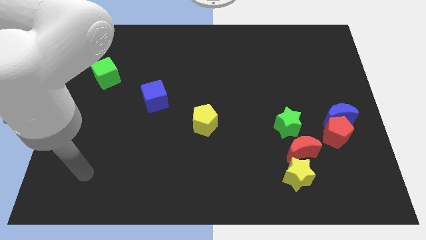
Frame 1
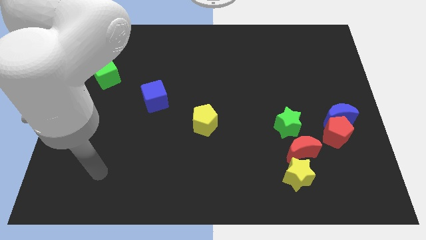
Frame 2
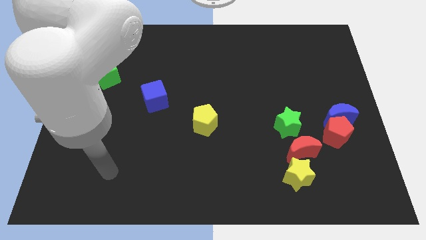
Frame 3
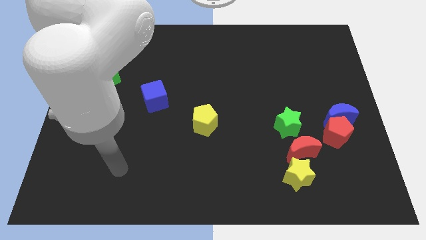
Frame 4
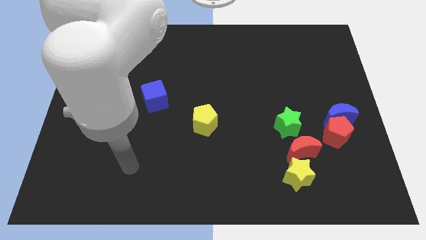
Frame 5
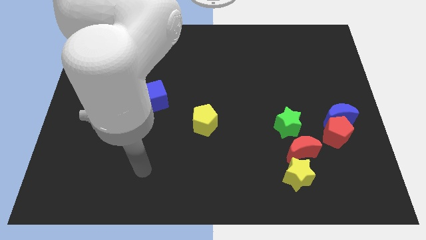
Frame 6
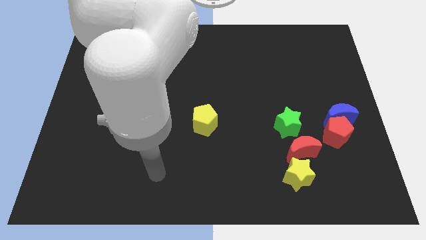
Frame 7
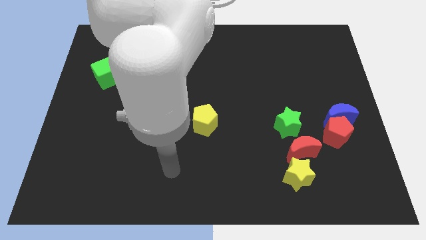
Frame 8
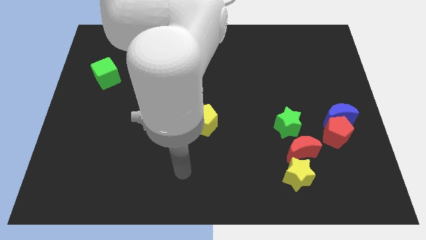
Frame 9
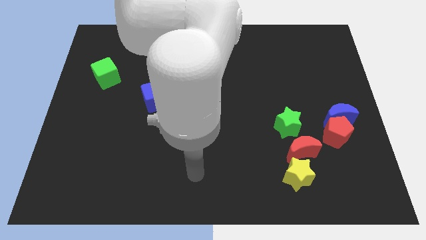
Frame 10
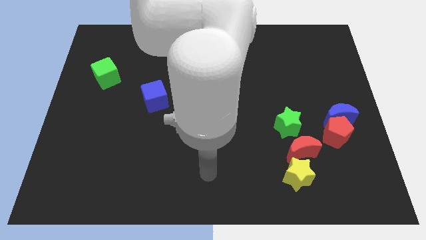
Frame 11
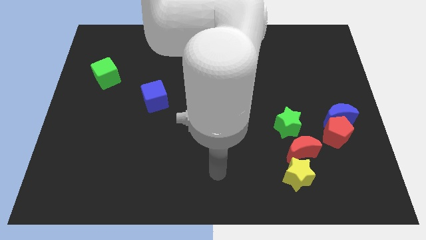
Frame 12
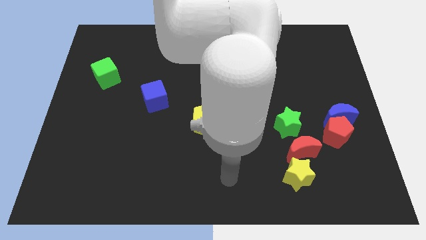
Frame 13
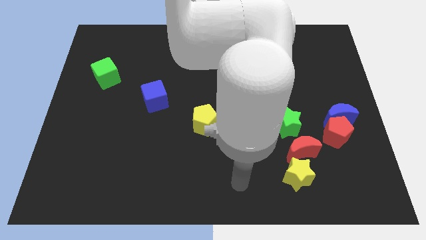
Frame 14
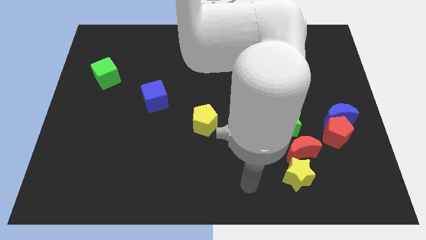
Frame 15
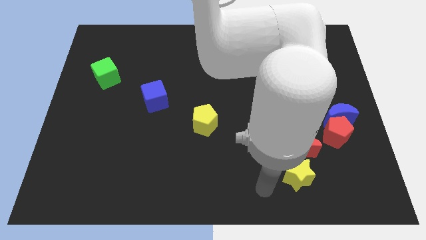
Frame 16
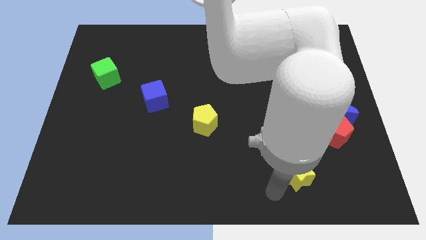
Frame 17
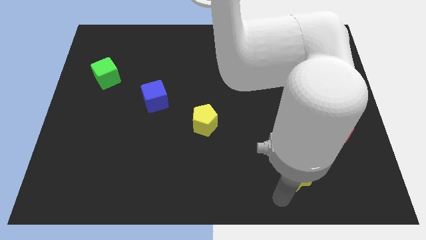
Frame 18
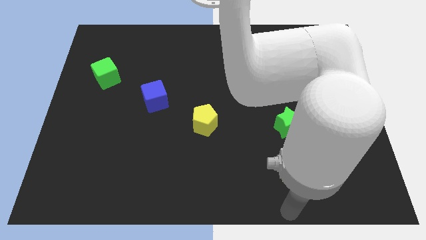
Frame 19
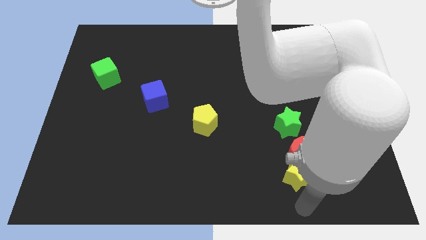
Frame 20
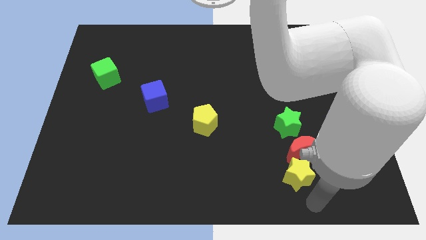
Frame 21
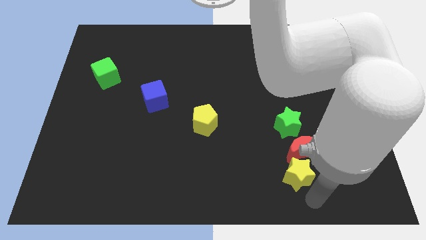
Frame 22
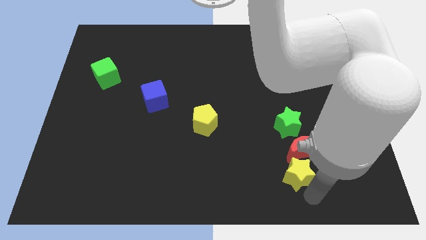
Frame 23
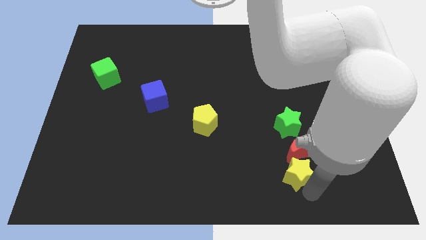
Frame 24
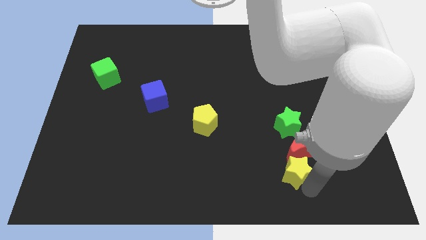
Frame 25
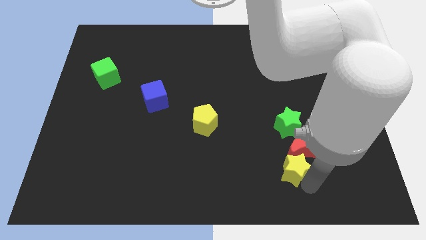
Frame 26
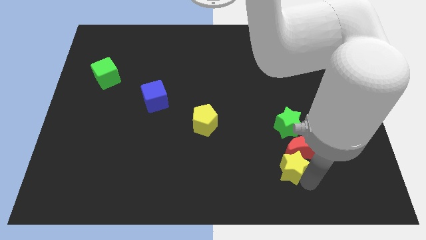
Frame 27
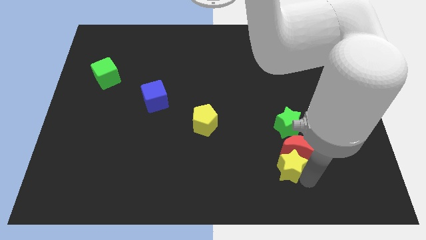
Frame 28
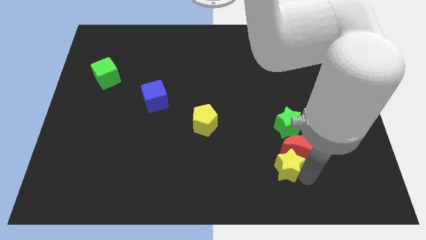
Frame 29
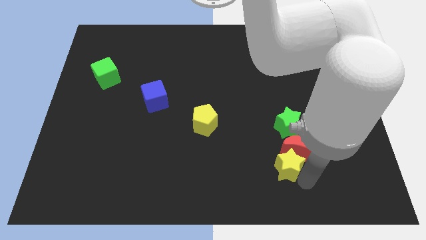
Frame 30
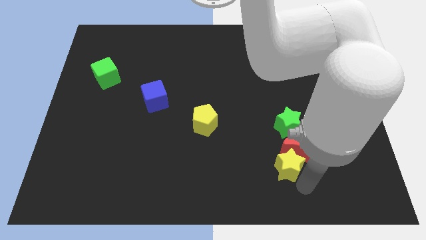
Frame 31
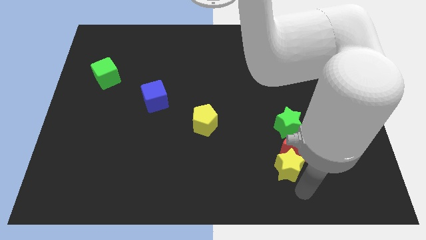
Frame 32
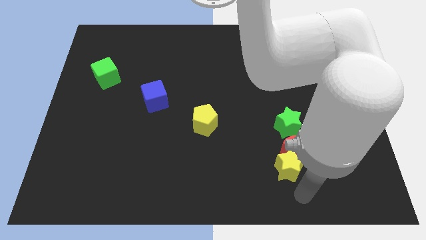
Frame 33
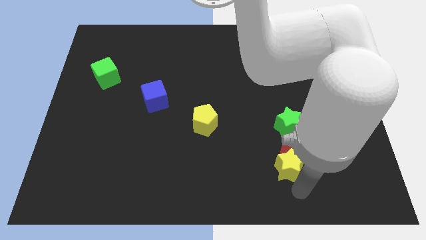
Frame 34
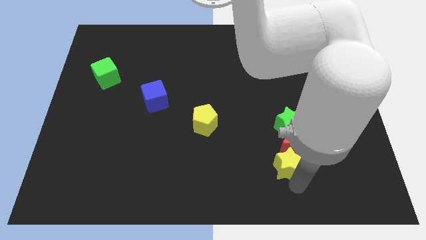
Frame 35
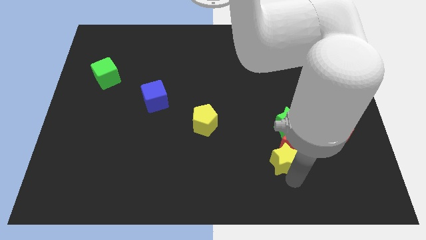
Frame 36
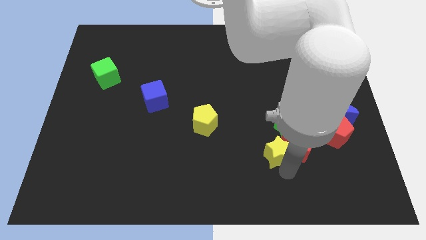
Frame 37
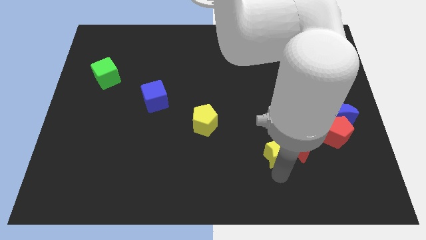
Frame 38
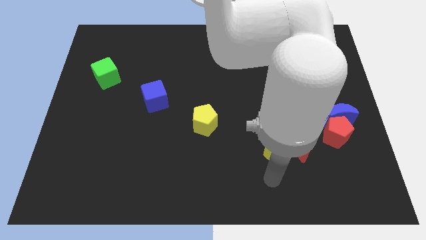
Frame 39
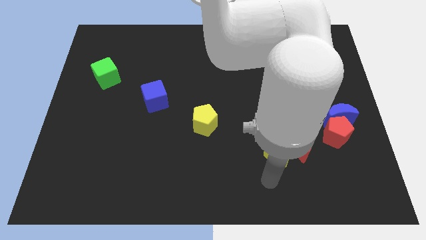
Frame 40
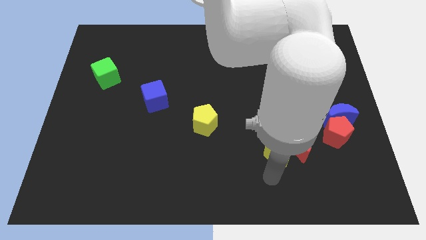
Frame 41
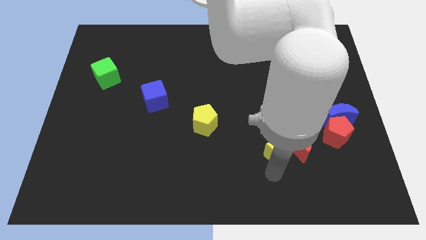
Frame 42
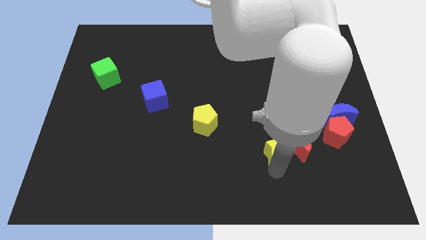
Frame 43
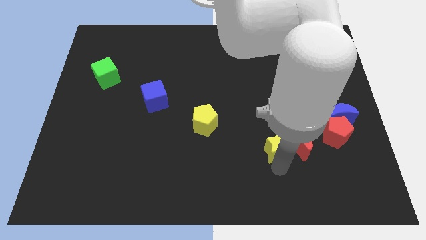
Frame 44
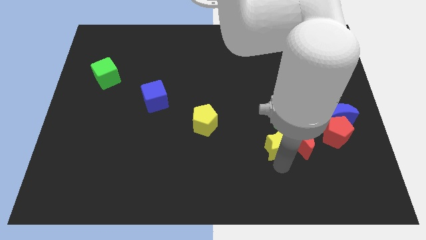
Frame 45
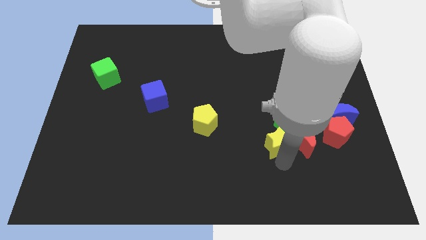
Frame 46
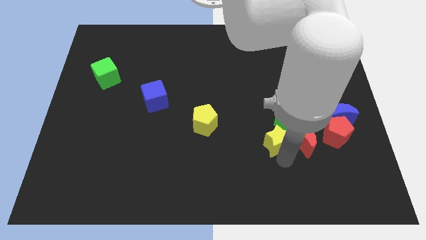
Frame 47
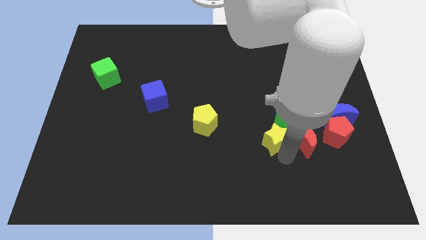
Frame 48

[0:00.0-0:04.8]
put the yellow star to the green star

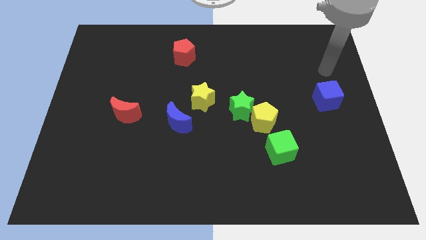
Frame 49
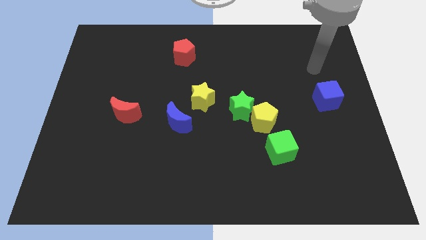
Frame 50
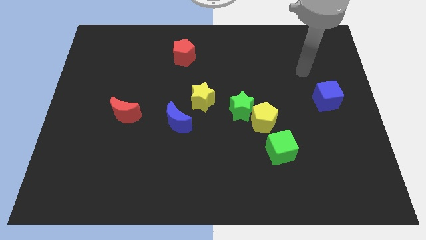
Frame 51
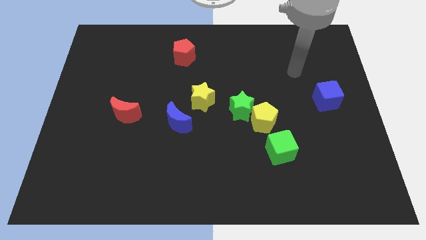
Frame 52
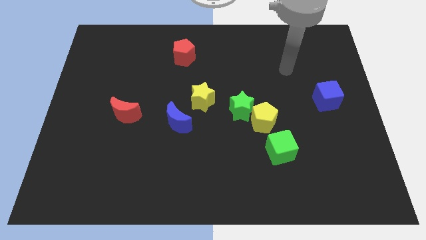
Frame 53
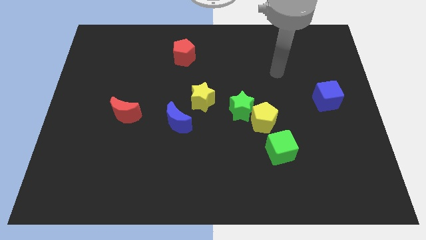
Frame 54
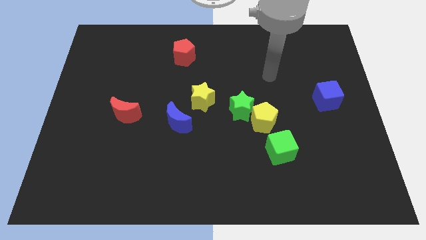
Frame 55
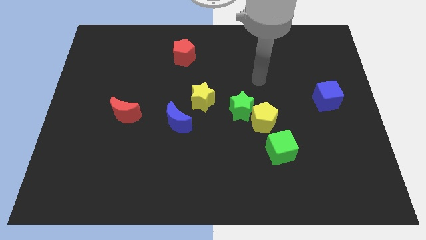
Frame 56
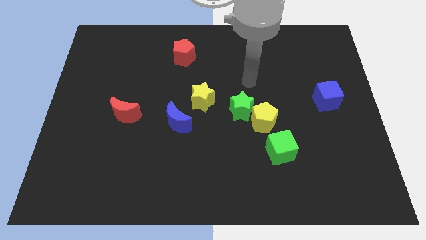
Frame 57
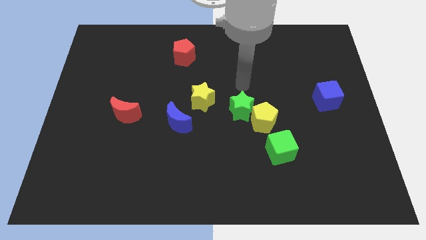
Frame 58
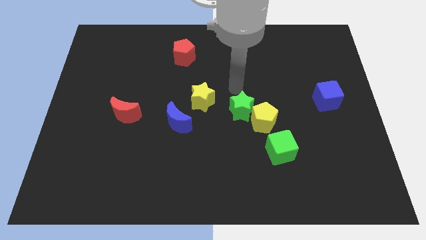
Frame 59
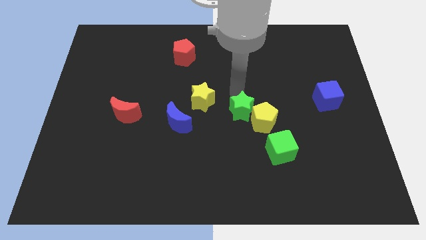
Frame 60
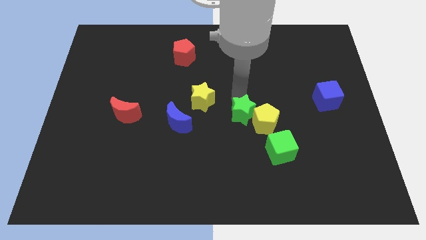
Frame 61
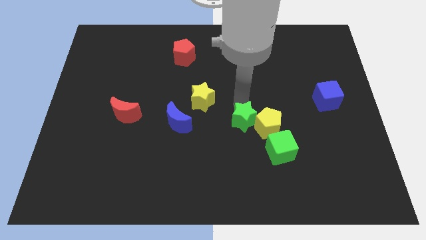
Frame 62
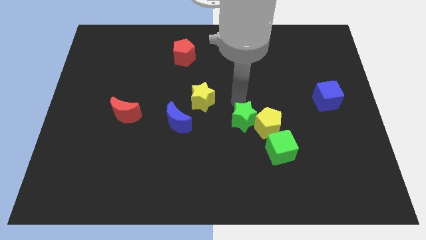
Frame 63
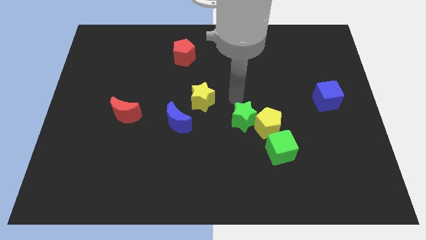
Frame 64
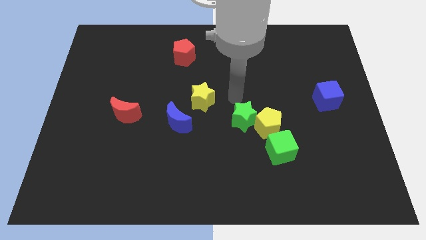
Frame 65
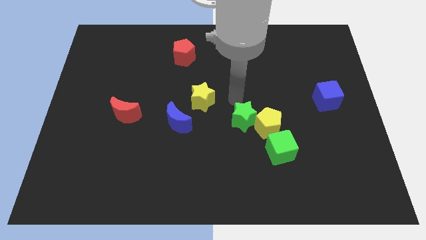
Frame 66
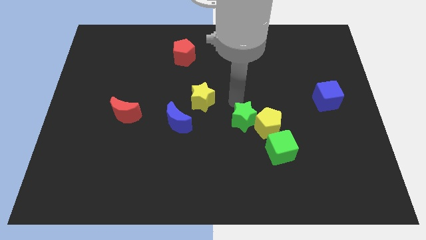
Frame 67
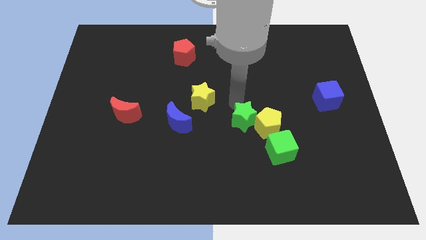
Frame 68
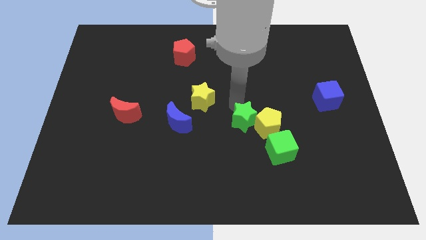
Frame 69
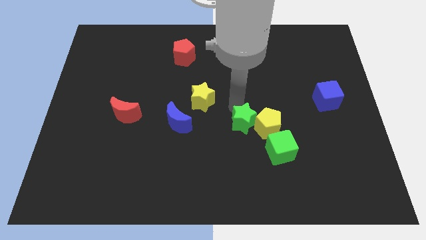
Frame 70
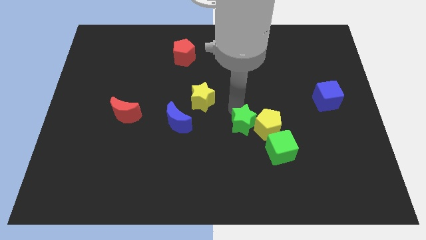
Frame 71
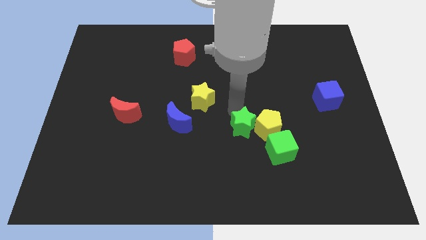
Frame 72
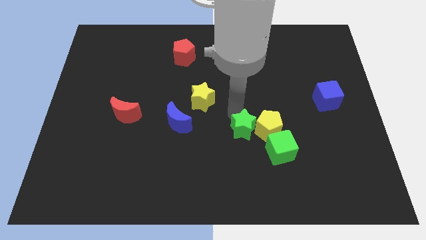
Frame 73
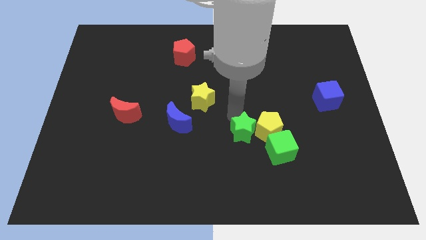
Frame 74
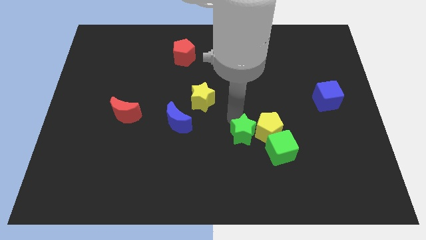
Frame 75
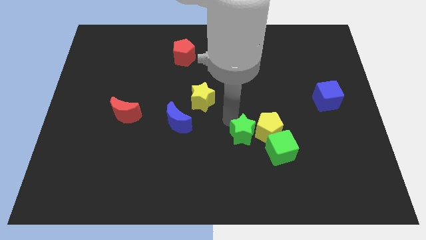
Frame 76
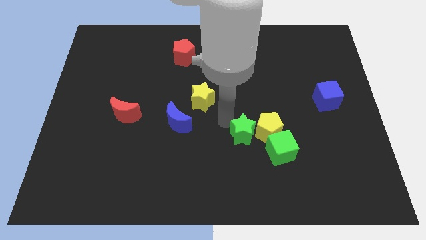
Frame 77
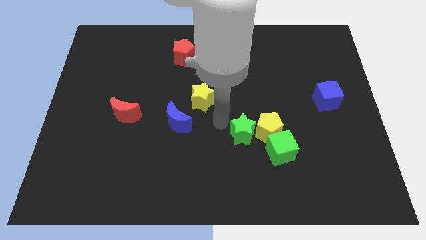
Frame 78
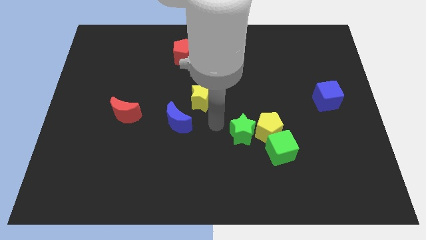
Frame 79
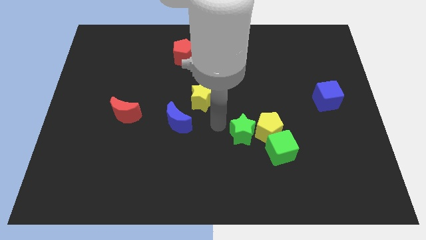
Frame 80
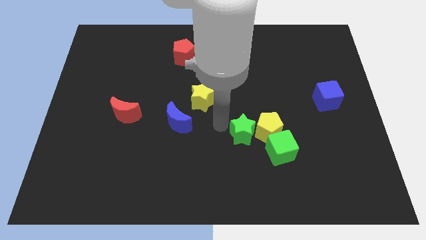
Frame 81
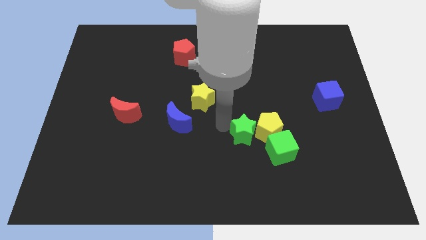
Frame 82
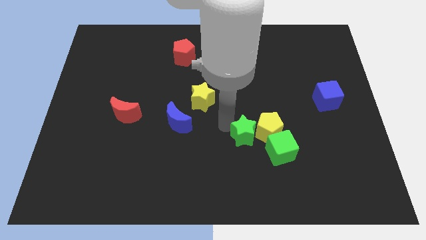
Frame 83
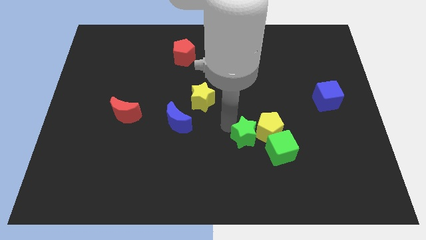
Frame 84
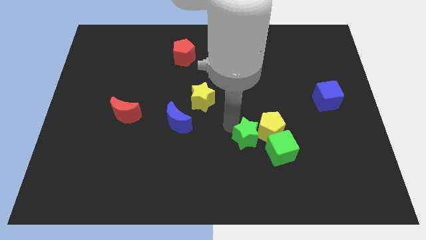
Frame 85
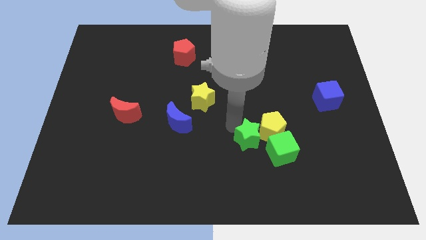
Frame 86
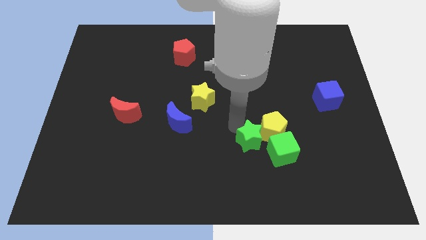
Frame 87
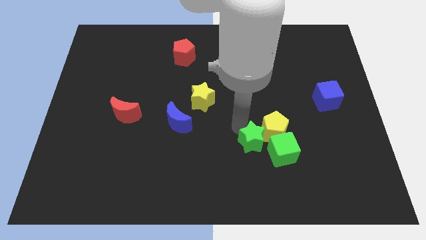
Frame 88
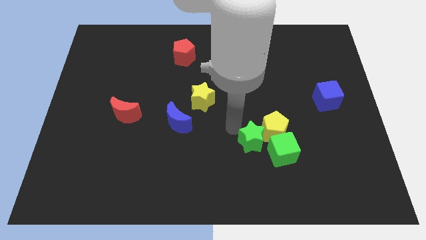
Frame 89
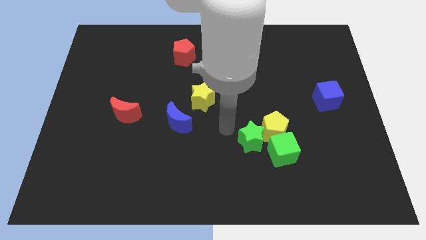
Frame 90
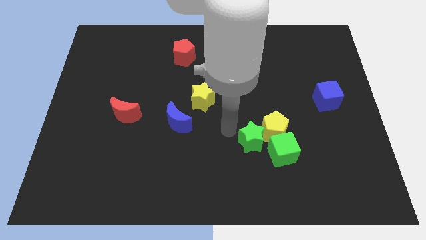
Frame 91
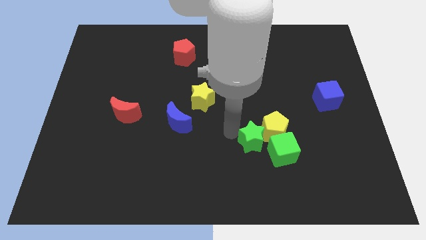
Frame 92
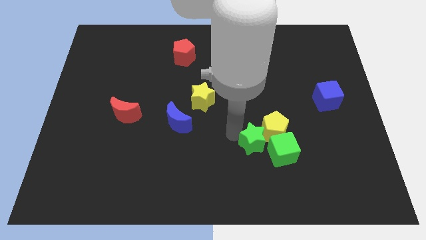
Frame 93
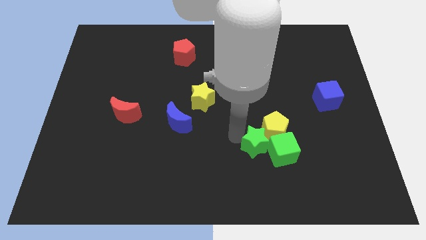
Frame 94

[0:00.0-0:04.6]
slide the green star next to the green cube
